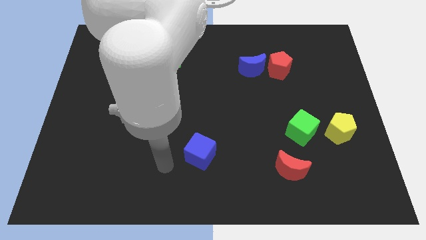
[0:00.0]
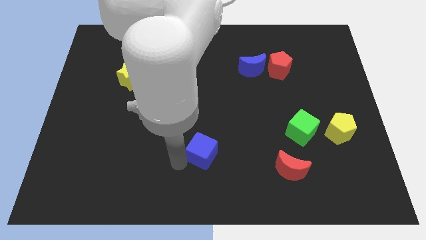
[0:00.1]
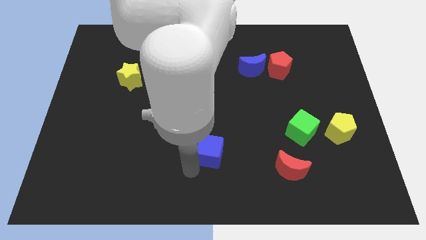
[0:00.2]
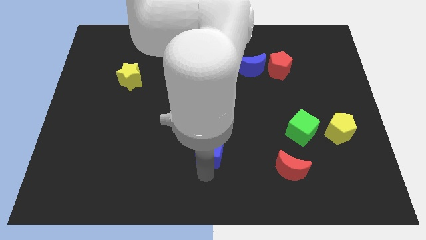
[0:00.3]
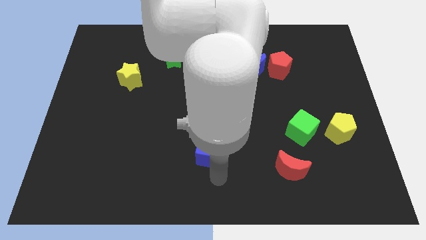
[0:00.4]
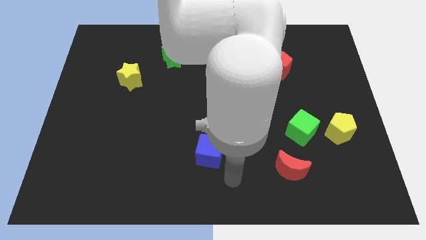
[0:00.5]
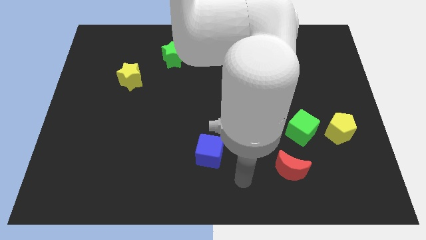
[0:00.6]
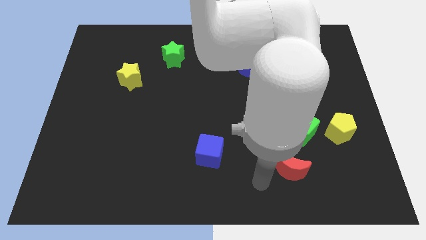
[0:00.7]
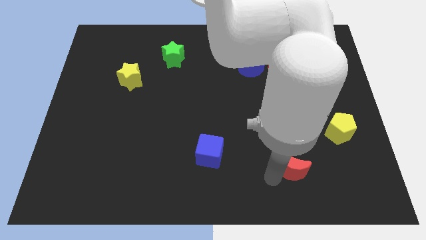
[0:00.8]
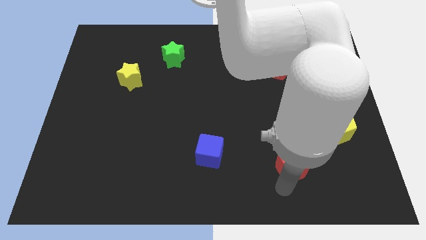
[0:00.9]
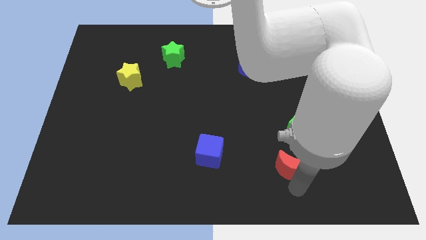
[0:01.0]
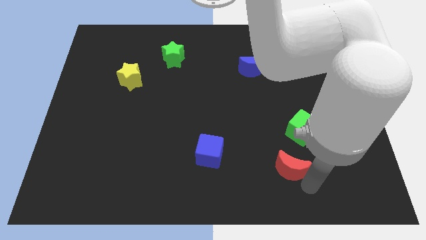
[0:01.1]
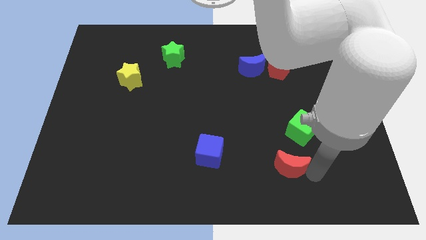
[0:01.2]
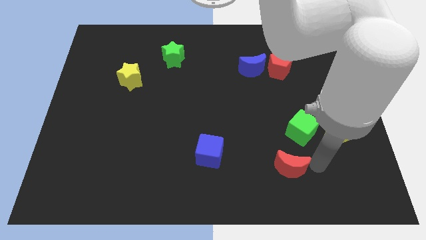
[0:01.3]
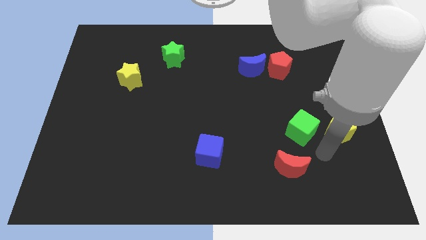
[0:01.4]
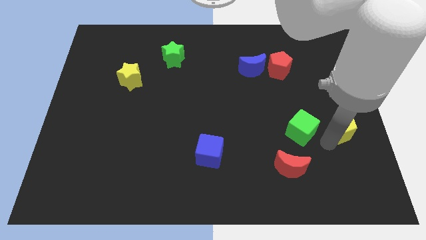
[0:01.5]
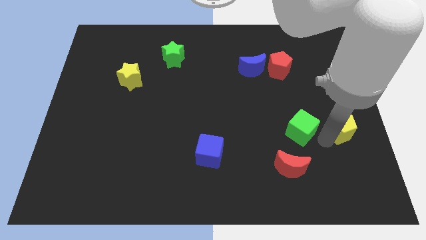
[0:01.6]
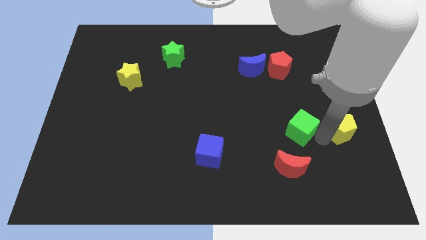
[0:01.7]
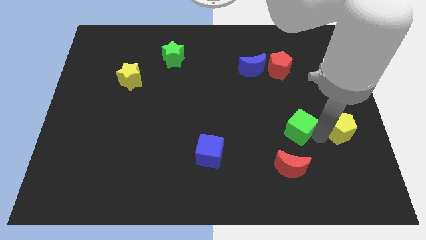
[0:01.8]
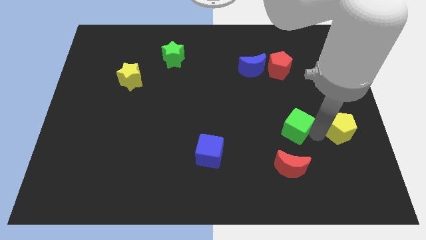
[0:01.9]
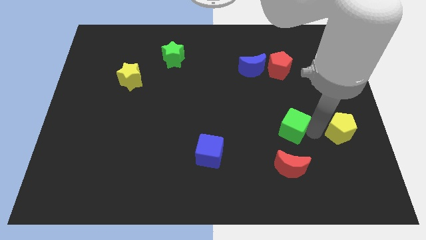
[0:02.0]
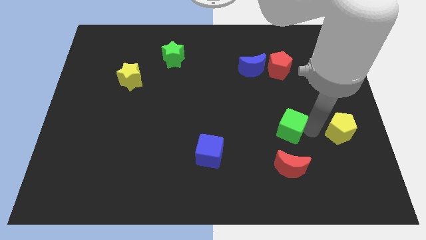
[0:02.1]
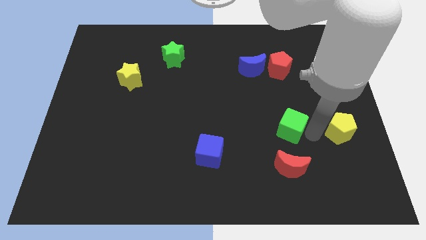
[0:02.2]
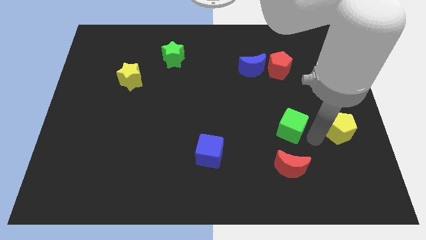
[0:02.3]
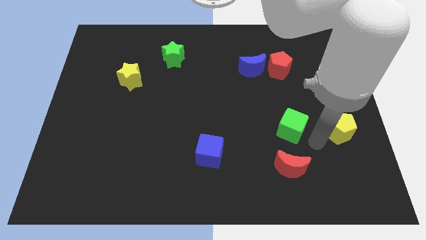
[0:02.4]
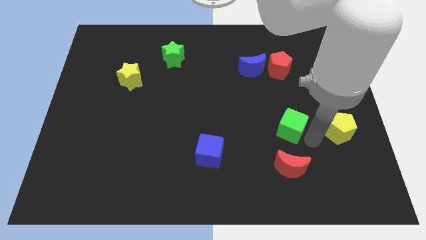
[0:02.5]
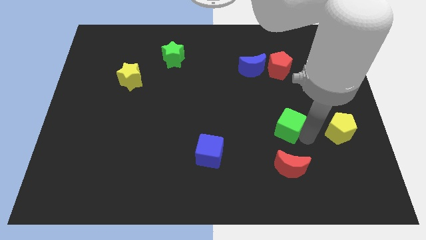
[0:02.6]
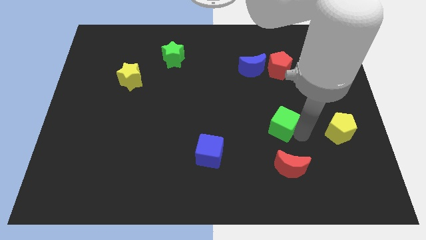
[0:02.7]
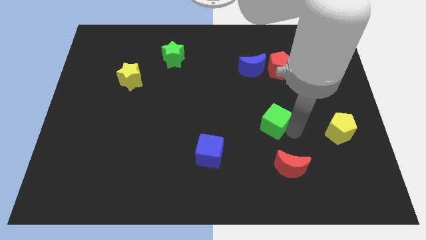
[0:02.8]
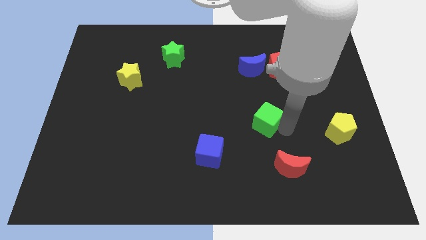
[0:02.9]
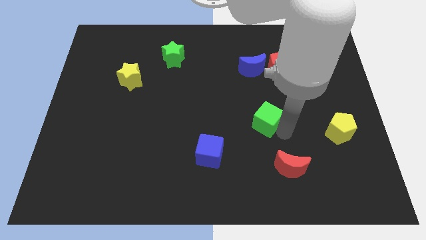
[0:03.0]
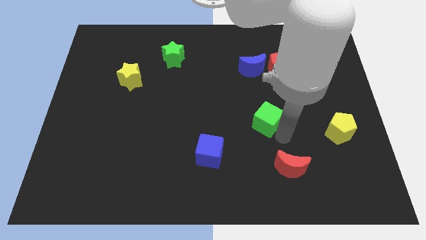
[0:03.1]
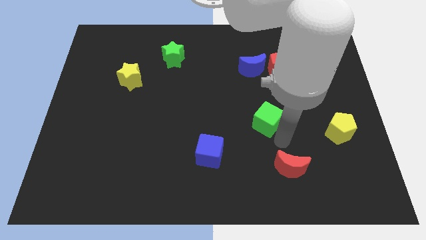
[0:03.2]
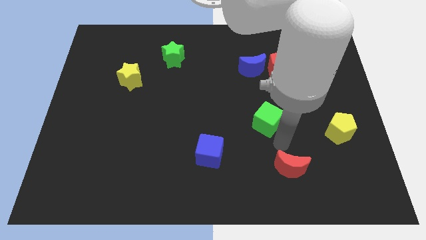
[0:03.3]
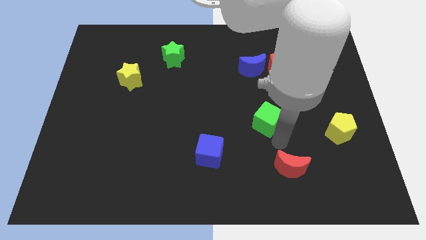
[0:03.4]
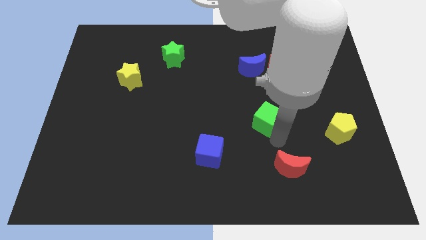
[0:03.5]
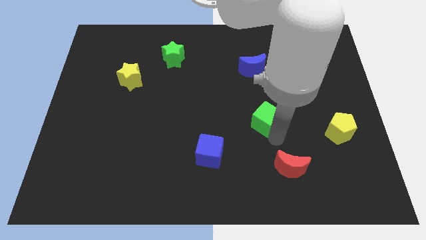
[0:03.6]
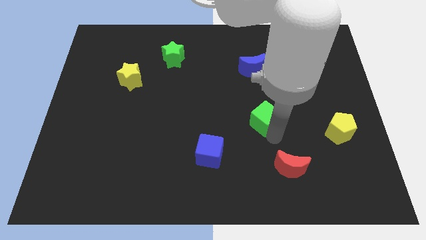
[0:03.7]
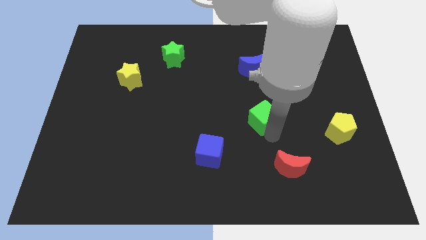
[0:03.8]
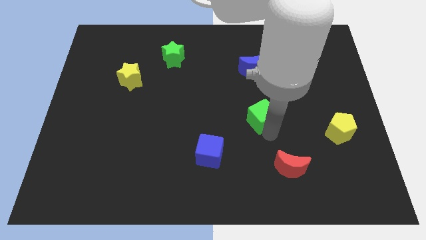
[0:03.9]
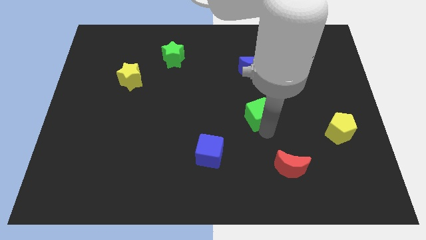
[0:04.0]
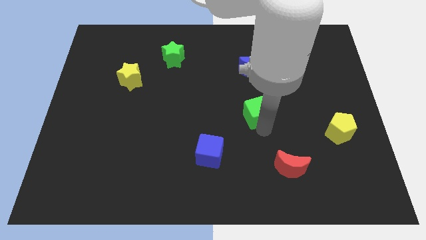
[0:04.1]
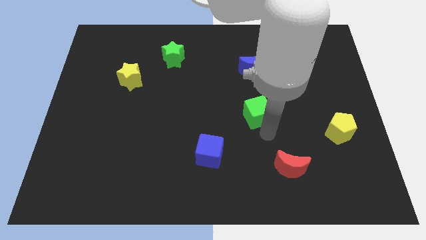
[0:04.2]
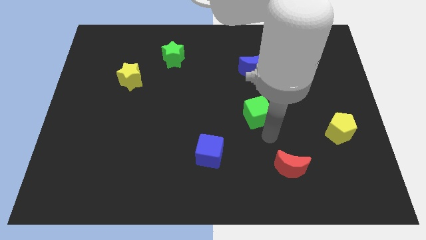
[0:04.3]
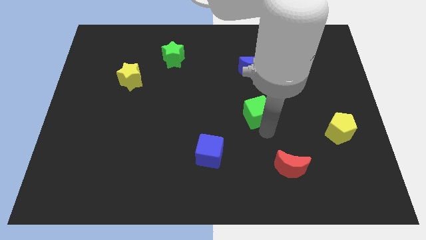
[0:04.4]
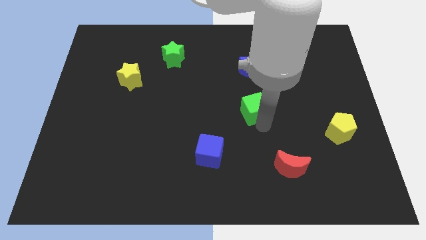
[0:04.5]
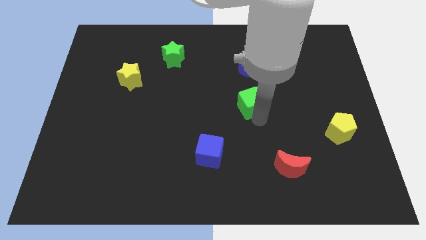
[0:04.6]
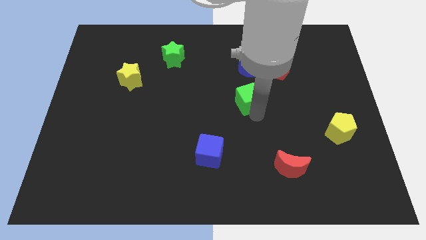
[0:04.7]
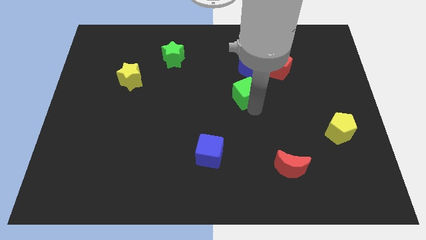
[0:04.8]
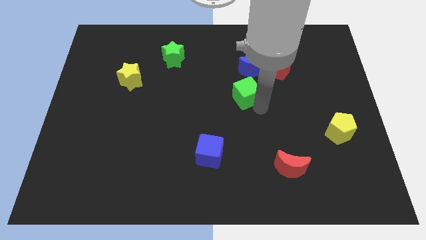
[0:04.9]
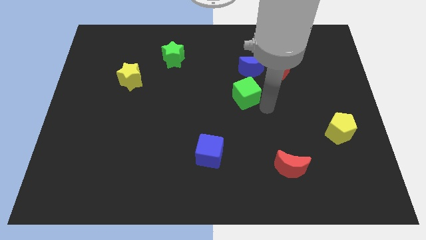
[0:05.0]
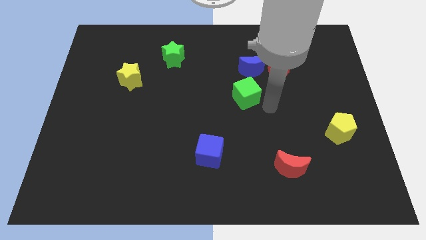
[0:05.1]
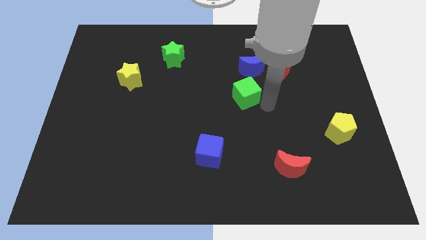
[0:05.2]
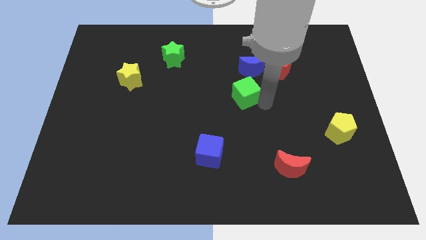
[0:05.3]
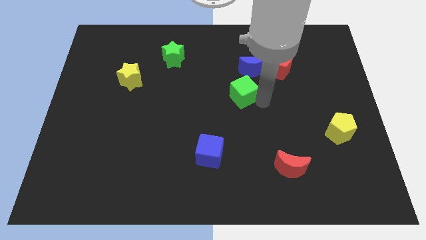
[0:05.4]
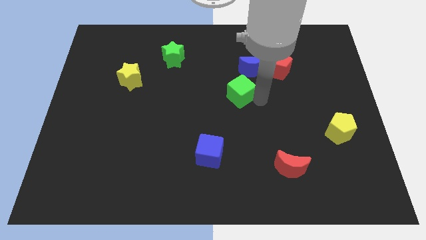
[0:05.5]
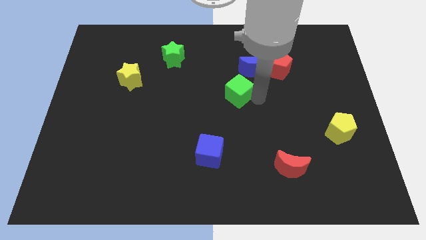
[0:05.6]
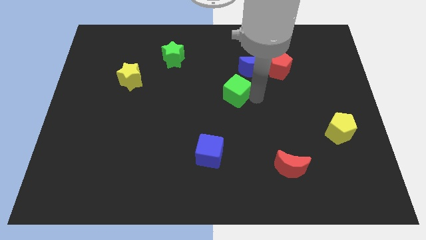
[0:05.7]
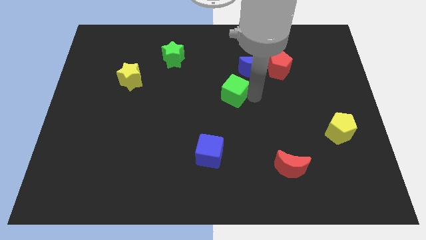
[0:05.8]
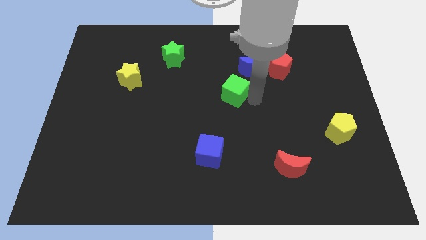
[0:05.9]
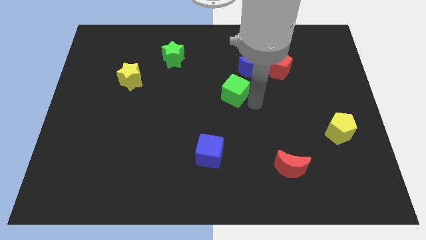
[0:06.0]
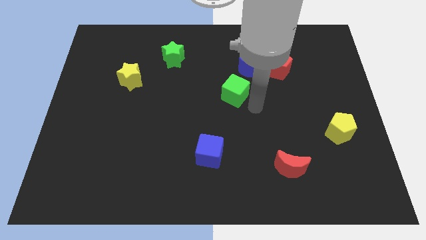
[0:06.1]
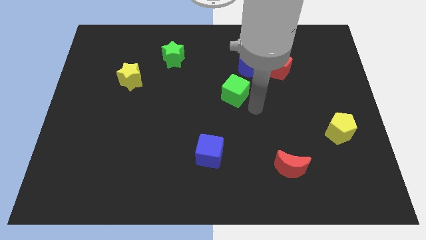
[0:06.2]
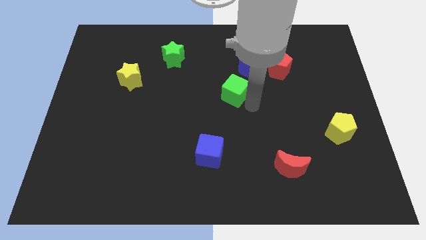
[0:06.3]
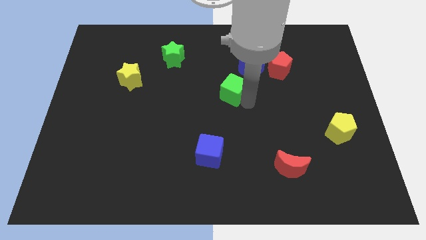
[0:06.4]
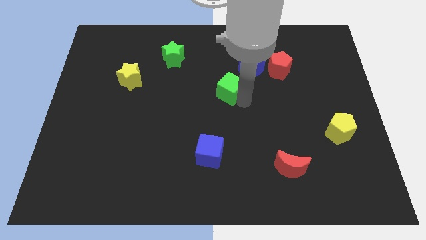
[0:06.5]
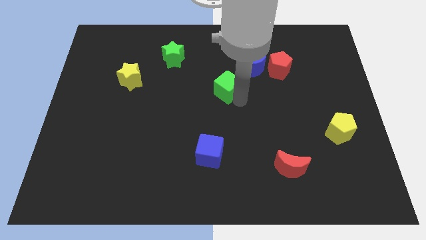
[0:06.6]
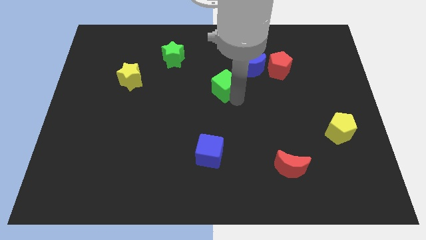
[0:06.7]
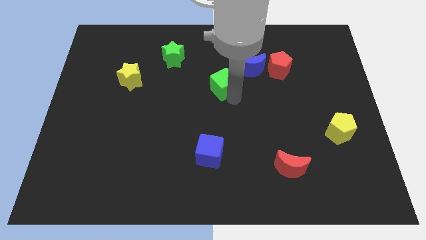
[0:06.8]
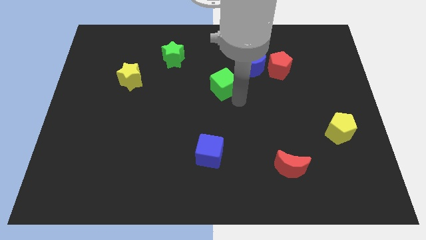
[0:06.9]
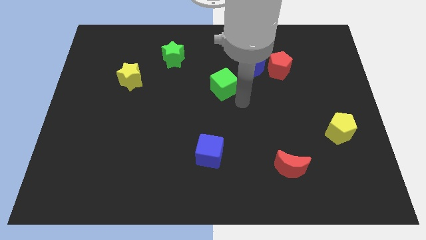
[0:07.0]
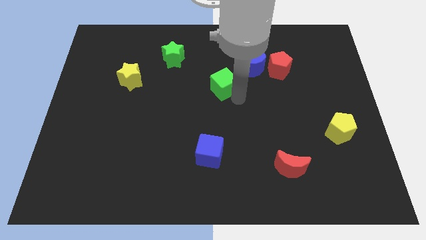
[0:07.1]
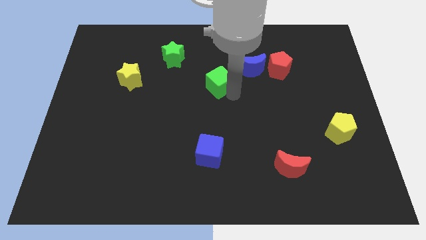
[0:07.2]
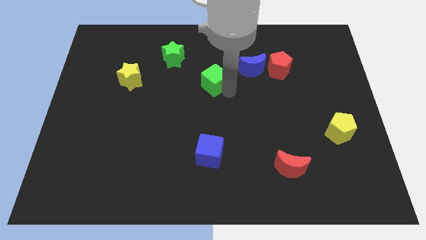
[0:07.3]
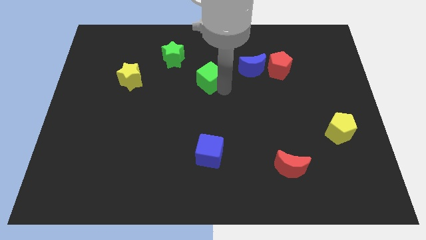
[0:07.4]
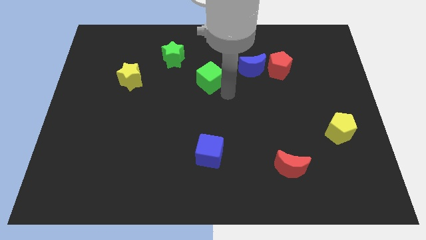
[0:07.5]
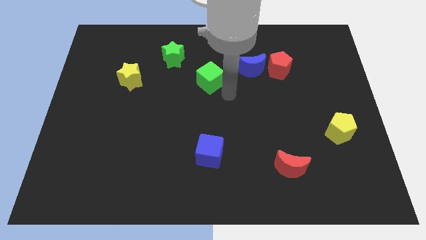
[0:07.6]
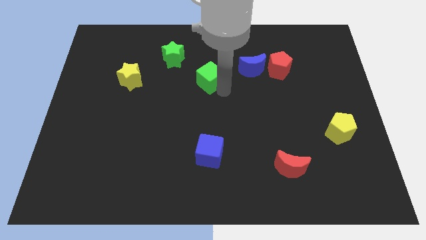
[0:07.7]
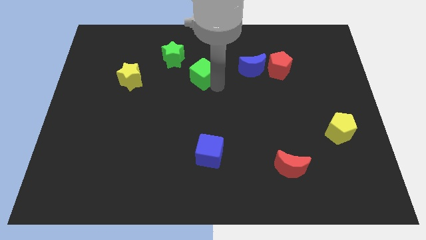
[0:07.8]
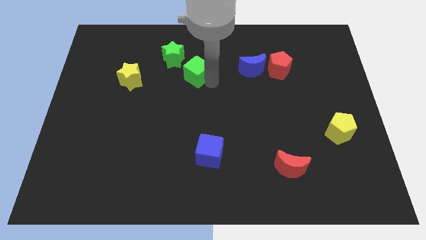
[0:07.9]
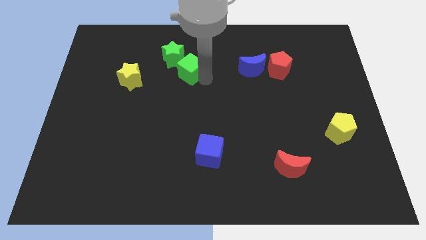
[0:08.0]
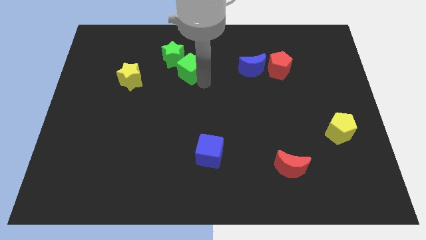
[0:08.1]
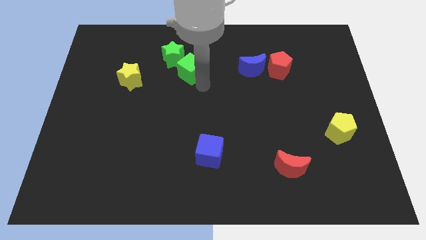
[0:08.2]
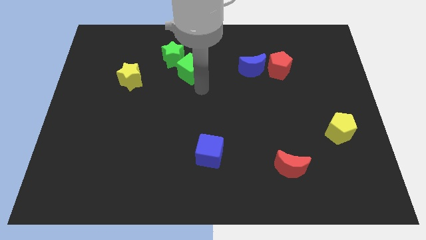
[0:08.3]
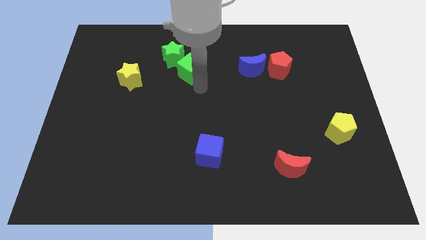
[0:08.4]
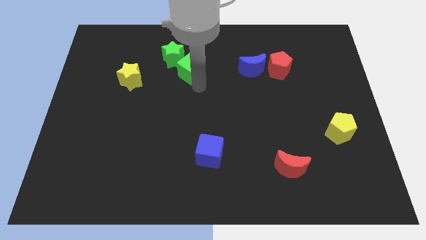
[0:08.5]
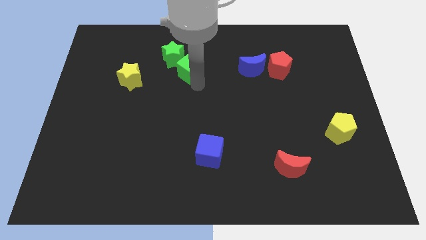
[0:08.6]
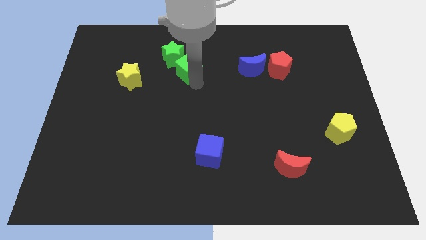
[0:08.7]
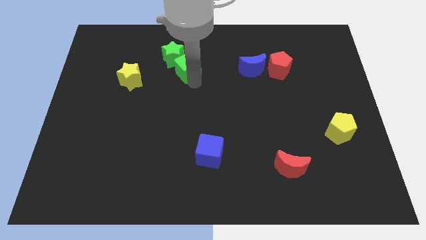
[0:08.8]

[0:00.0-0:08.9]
push the green cube towards the green star
